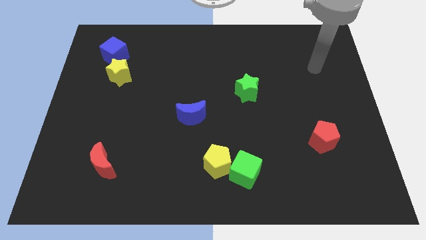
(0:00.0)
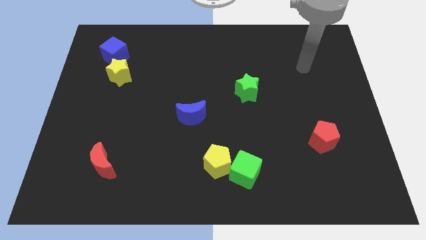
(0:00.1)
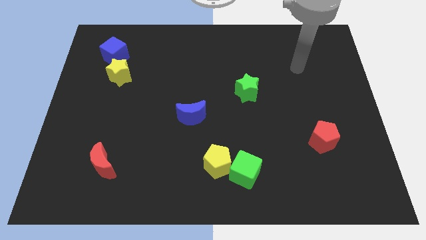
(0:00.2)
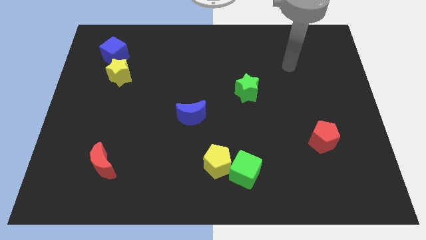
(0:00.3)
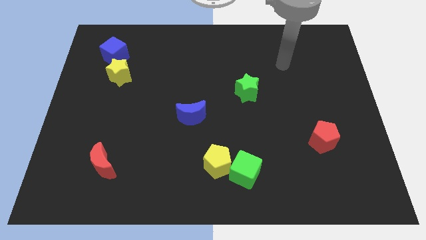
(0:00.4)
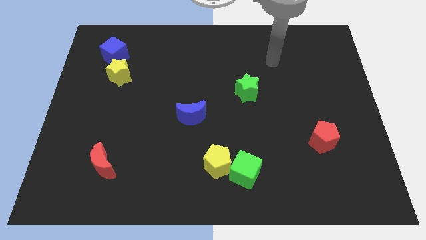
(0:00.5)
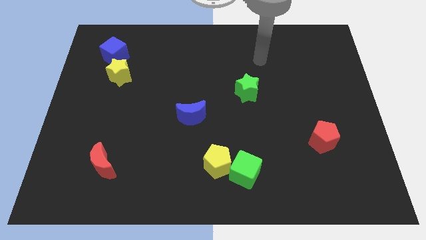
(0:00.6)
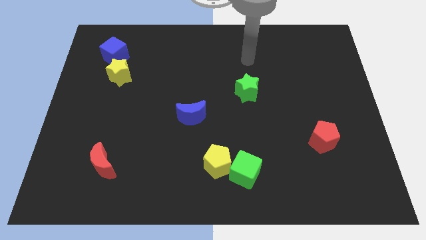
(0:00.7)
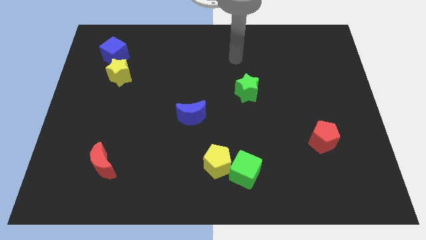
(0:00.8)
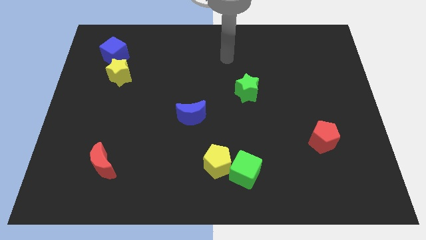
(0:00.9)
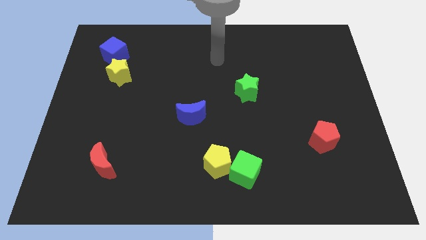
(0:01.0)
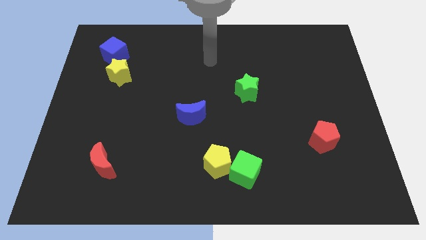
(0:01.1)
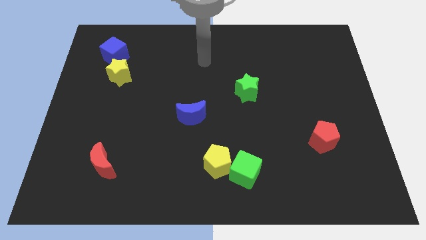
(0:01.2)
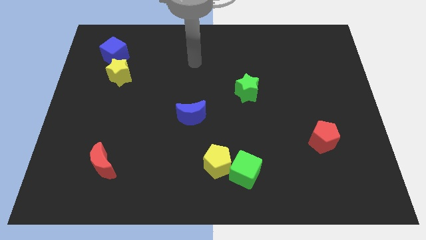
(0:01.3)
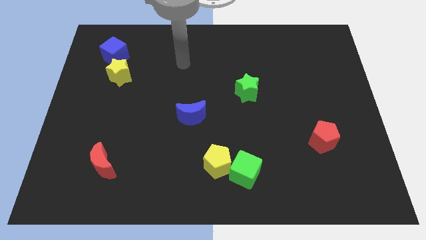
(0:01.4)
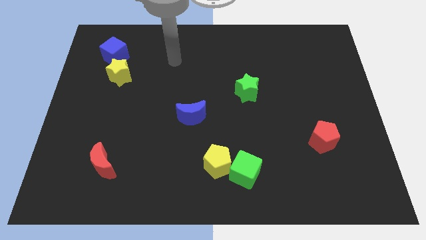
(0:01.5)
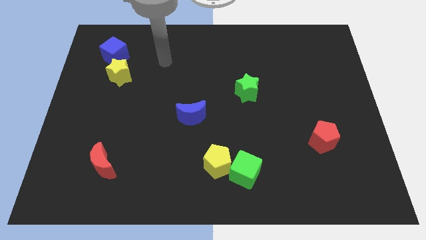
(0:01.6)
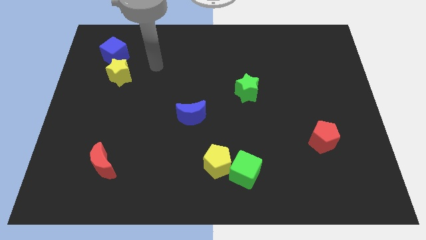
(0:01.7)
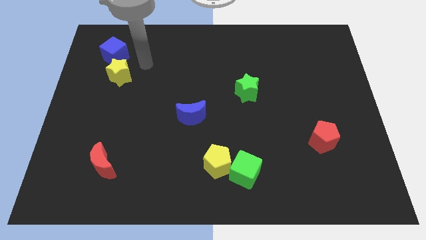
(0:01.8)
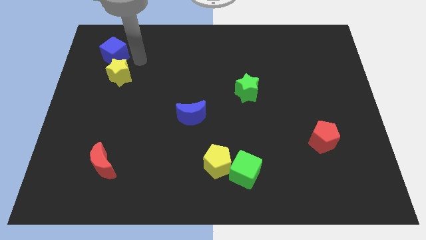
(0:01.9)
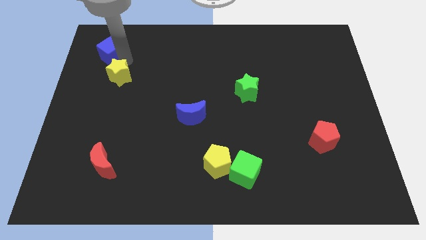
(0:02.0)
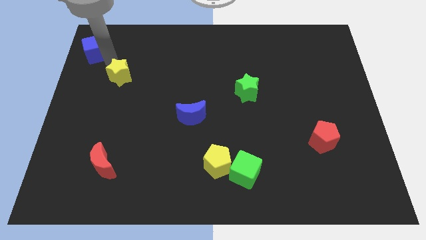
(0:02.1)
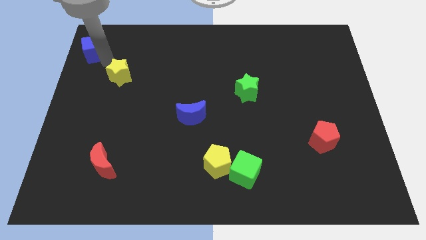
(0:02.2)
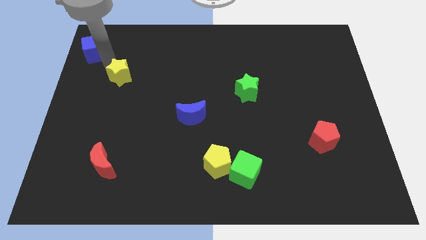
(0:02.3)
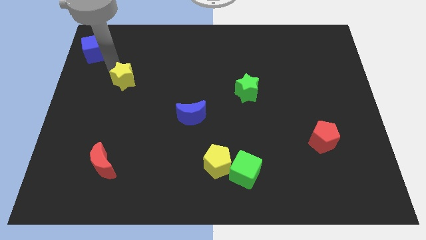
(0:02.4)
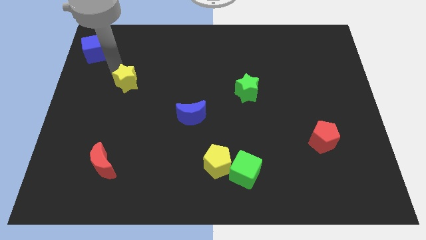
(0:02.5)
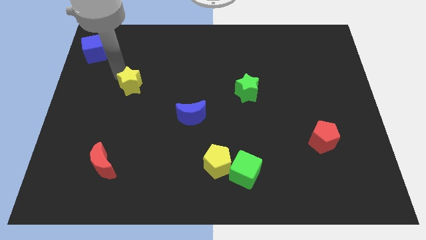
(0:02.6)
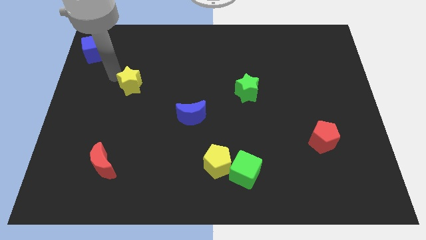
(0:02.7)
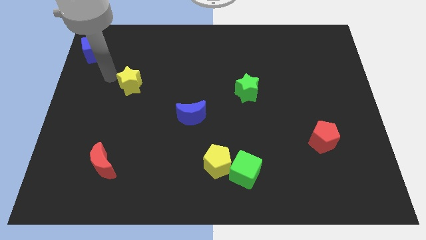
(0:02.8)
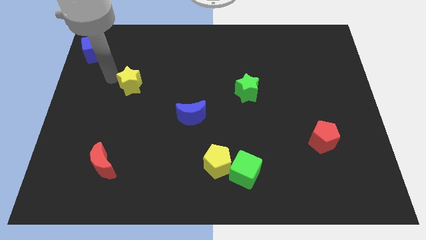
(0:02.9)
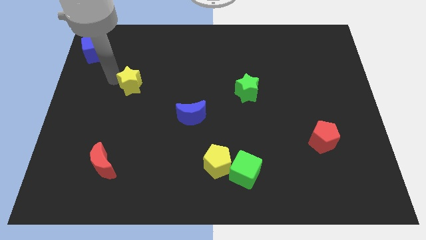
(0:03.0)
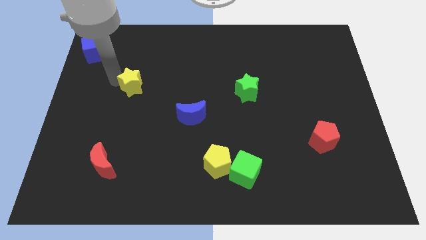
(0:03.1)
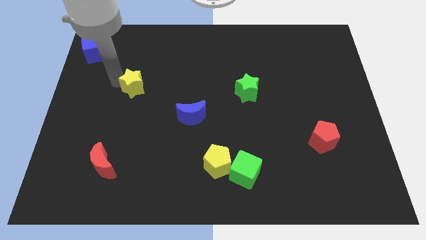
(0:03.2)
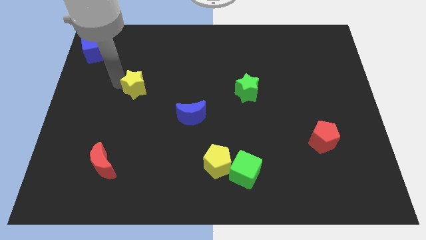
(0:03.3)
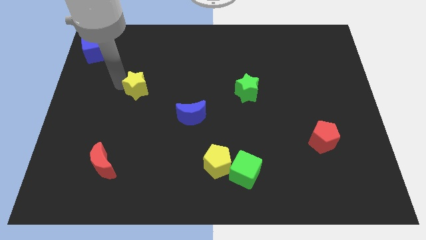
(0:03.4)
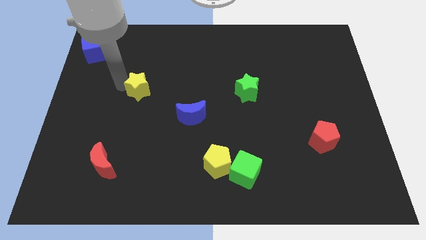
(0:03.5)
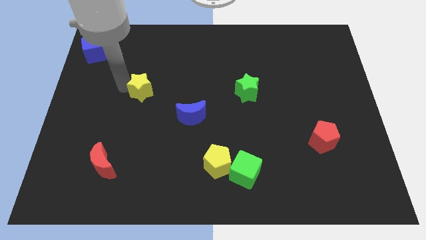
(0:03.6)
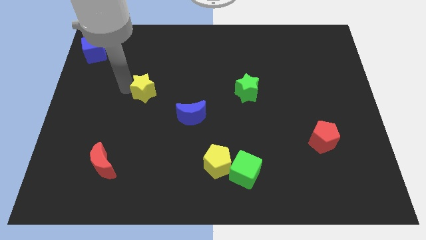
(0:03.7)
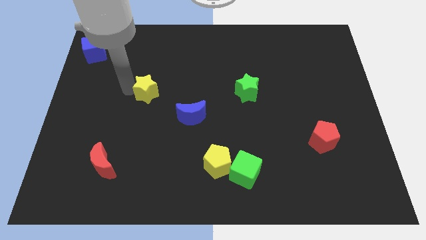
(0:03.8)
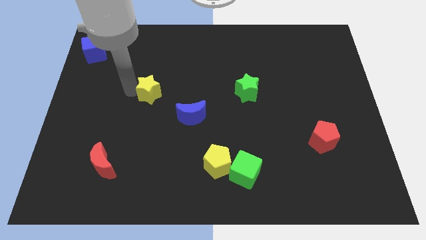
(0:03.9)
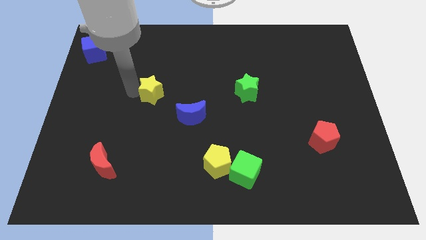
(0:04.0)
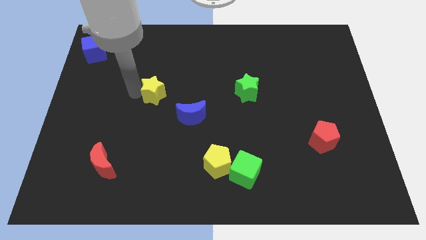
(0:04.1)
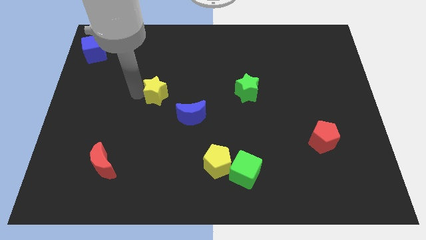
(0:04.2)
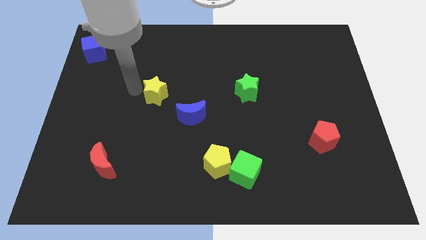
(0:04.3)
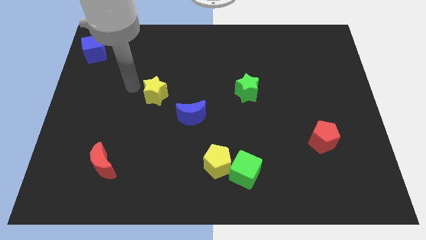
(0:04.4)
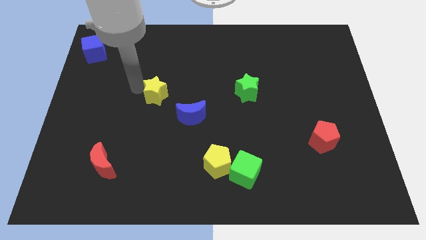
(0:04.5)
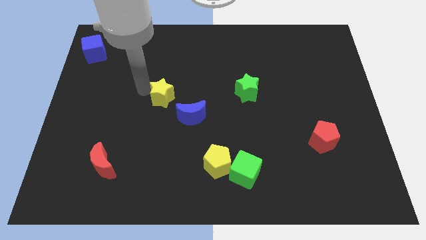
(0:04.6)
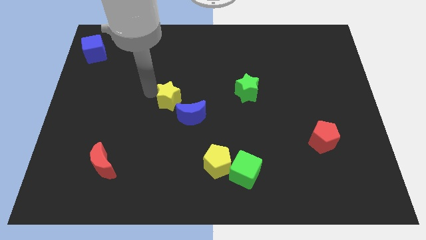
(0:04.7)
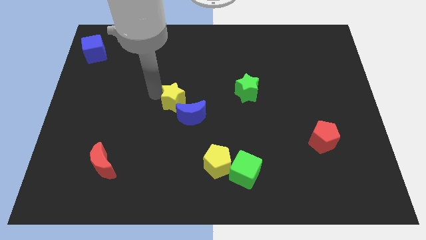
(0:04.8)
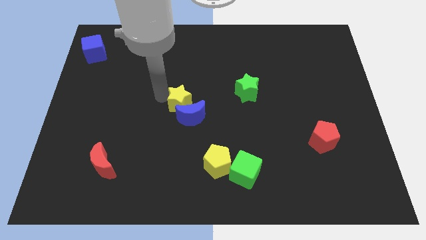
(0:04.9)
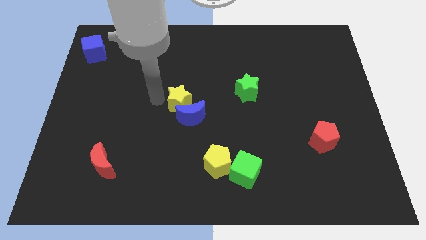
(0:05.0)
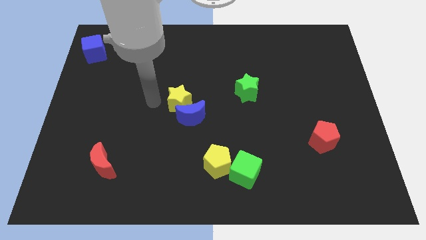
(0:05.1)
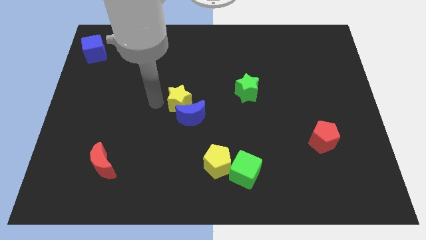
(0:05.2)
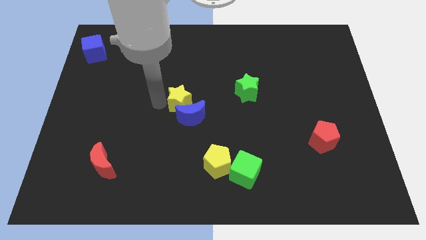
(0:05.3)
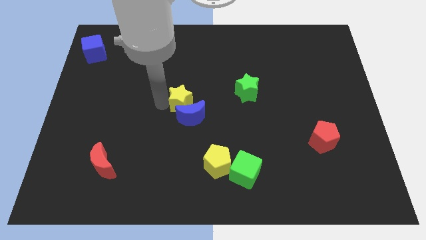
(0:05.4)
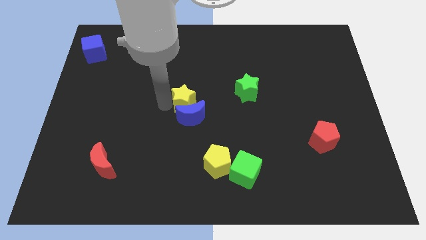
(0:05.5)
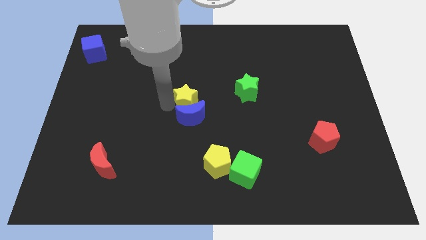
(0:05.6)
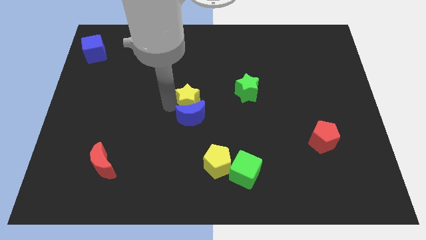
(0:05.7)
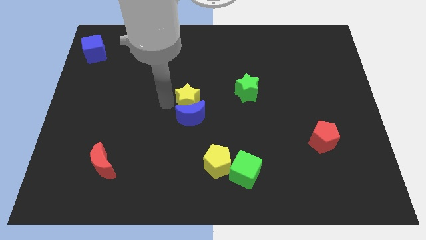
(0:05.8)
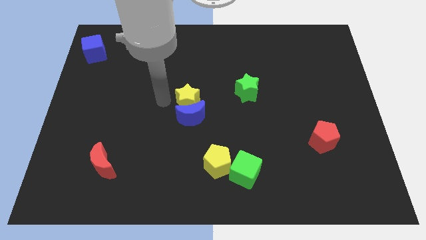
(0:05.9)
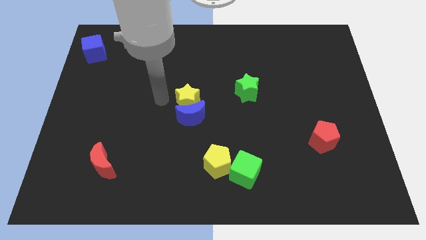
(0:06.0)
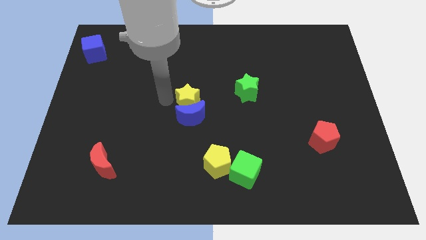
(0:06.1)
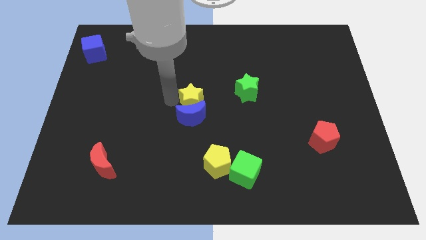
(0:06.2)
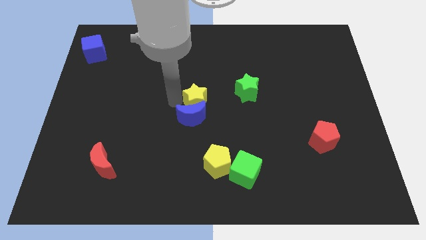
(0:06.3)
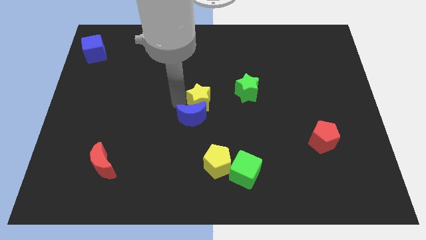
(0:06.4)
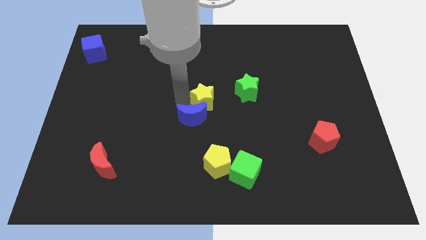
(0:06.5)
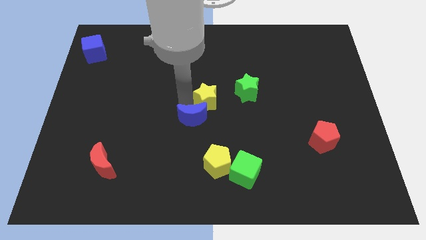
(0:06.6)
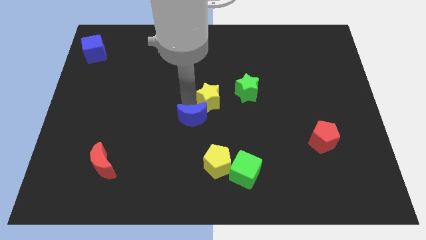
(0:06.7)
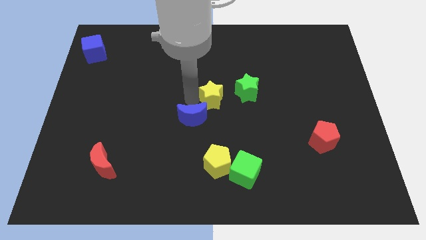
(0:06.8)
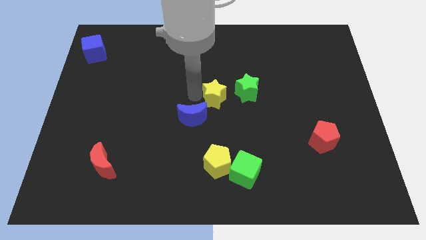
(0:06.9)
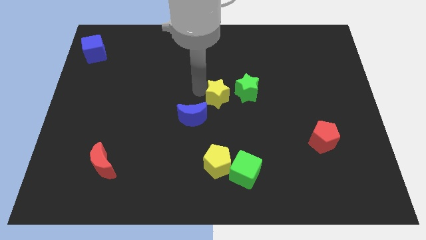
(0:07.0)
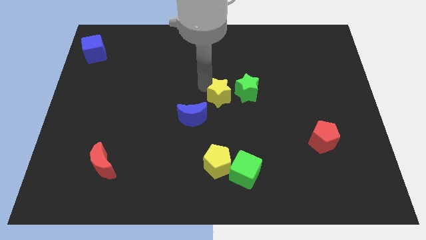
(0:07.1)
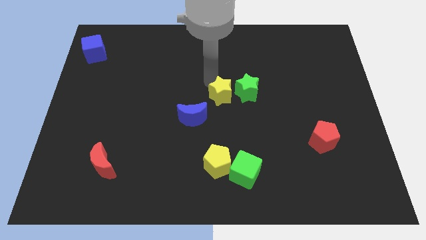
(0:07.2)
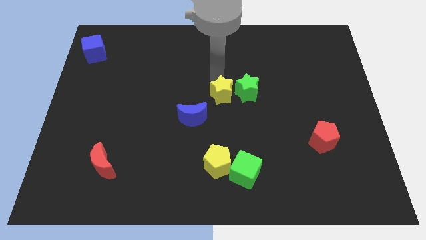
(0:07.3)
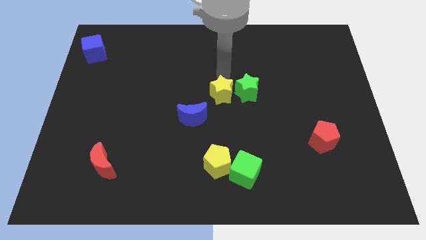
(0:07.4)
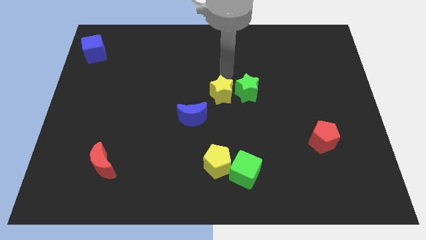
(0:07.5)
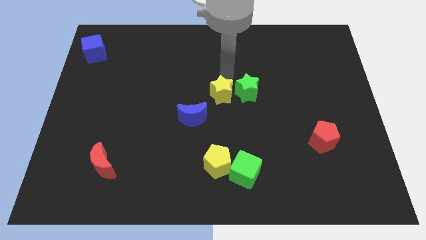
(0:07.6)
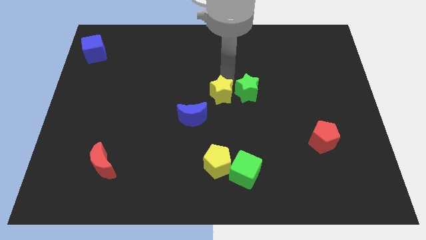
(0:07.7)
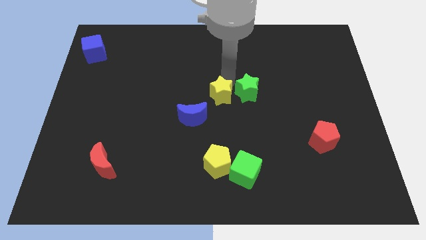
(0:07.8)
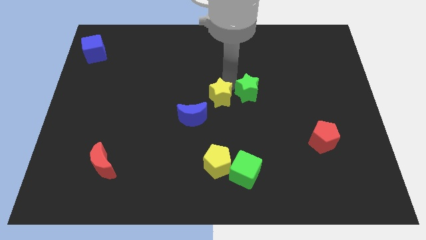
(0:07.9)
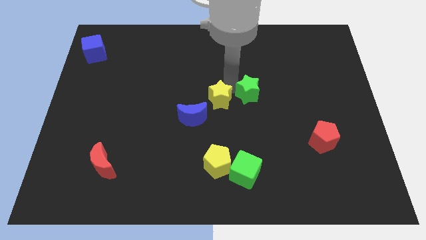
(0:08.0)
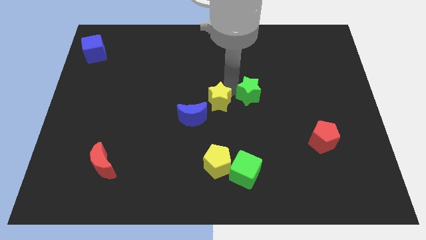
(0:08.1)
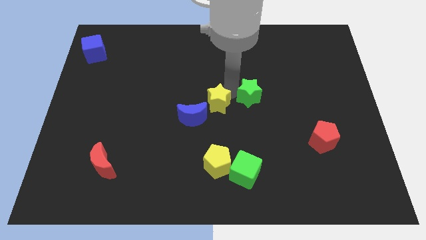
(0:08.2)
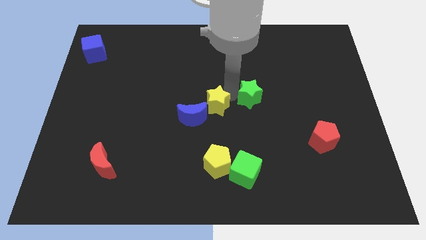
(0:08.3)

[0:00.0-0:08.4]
push the yellow star above the yellow pentagon
